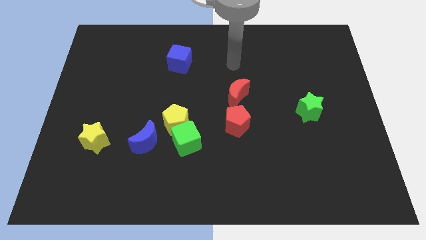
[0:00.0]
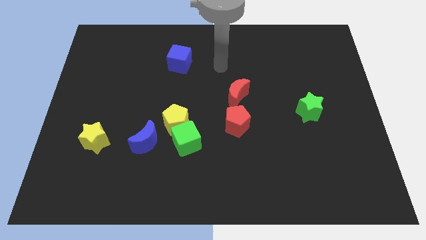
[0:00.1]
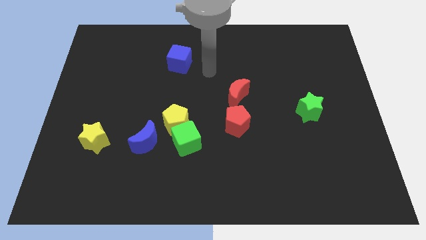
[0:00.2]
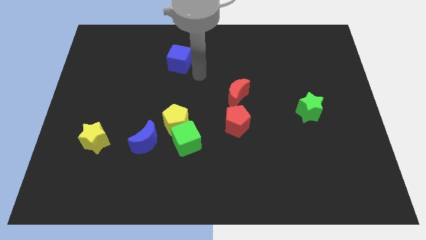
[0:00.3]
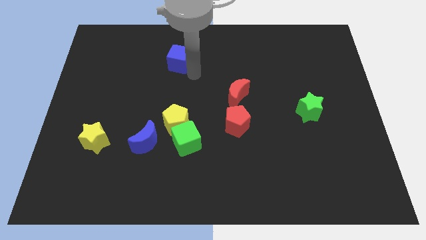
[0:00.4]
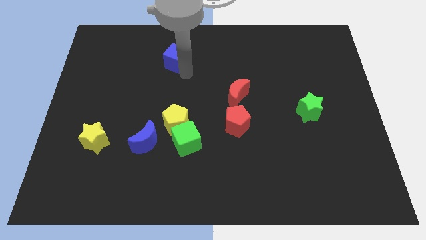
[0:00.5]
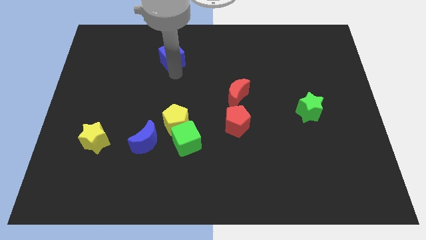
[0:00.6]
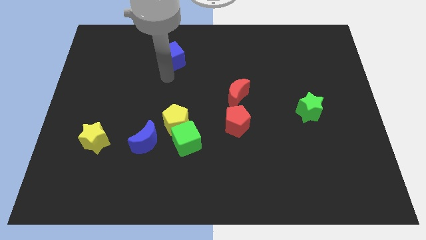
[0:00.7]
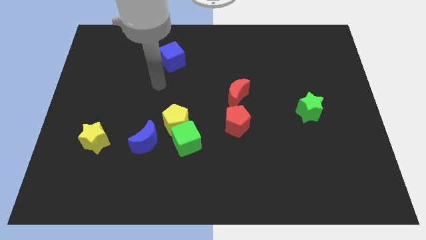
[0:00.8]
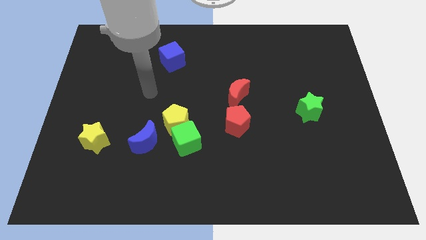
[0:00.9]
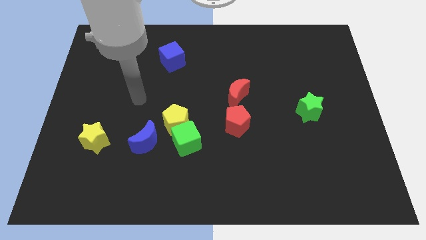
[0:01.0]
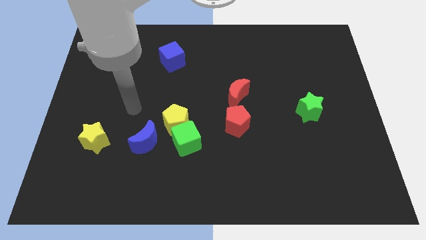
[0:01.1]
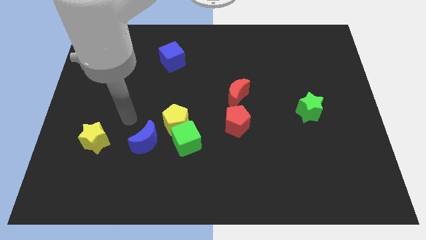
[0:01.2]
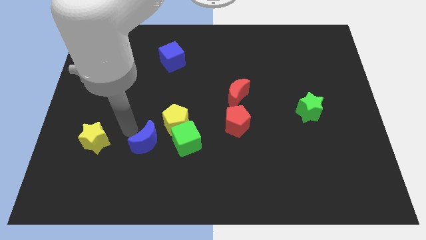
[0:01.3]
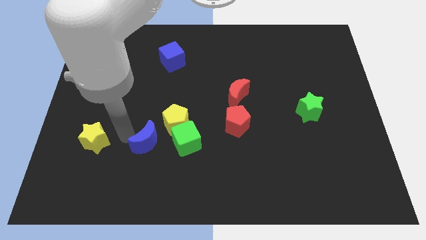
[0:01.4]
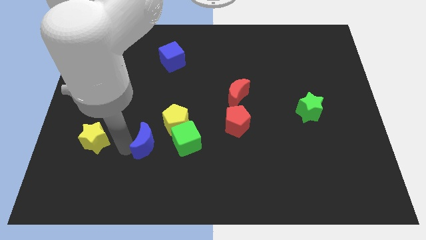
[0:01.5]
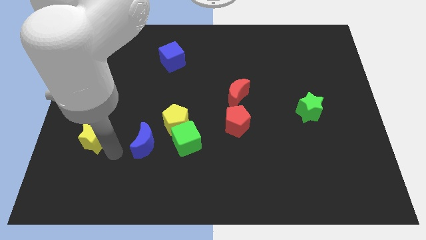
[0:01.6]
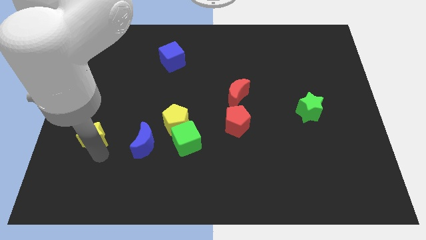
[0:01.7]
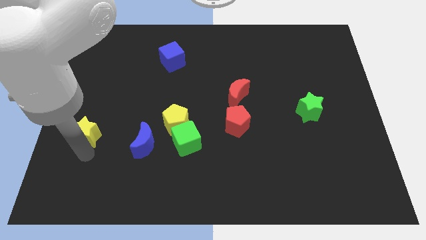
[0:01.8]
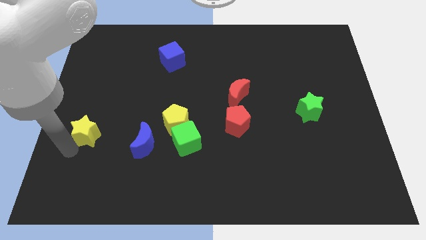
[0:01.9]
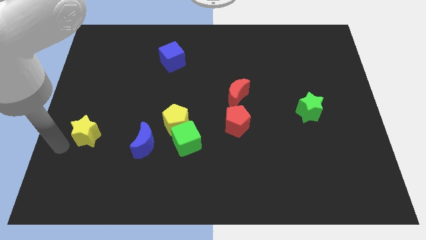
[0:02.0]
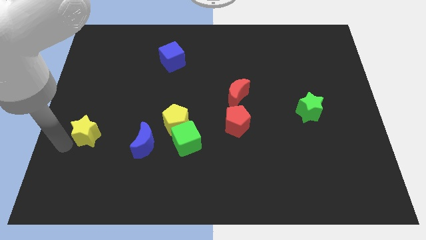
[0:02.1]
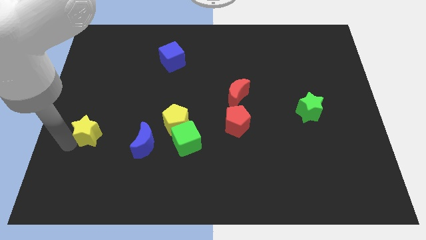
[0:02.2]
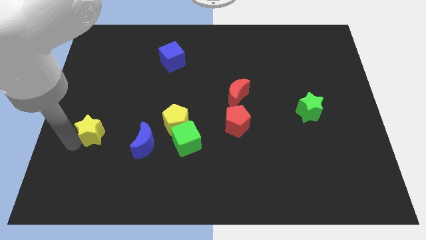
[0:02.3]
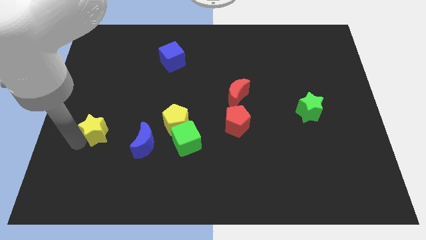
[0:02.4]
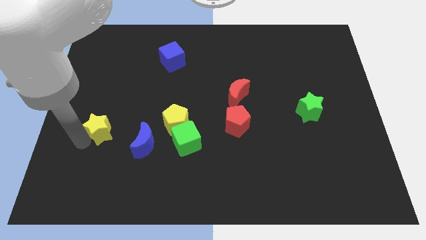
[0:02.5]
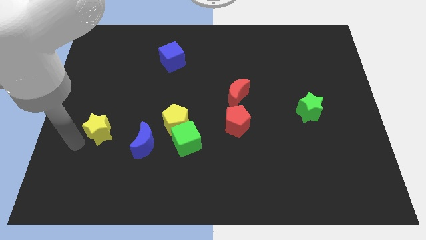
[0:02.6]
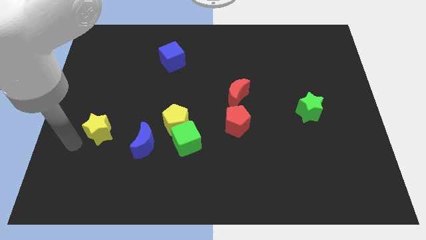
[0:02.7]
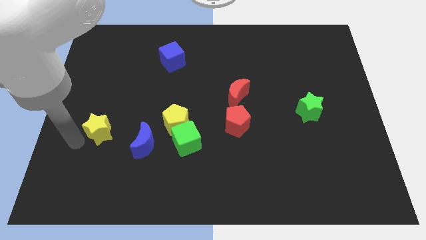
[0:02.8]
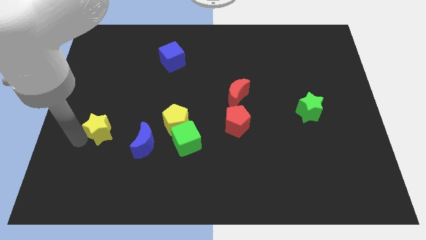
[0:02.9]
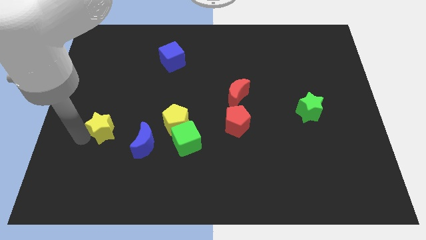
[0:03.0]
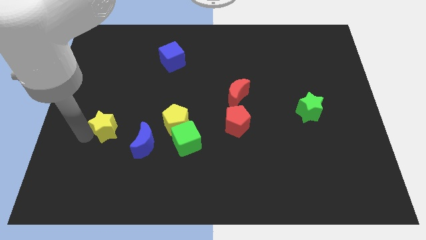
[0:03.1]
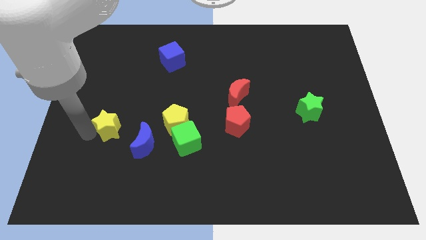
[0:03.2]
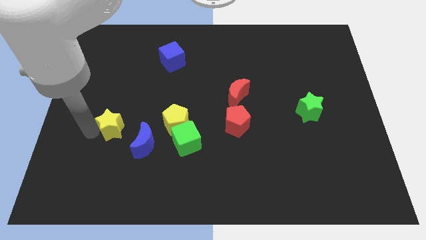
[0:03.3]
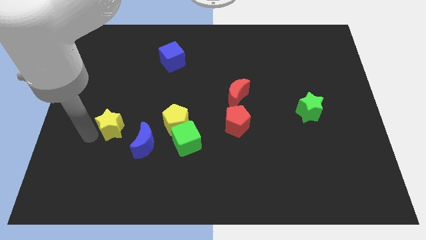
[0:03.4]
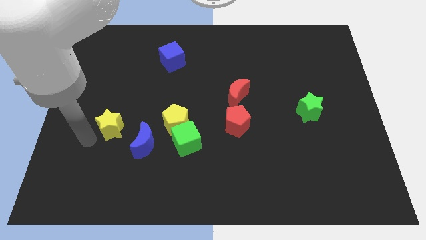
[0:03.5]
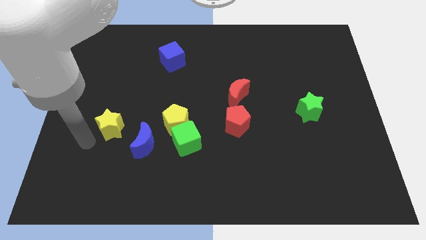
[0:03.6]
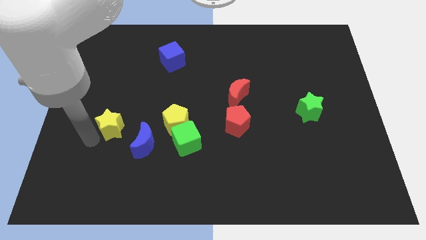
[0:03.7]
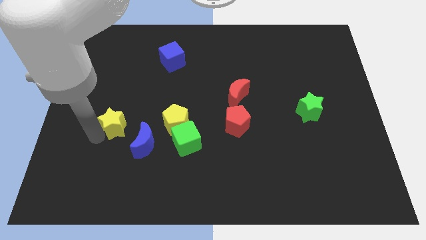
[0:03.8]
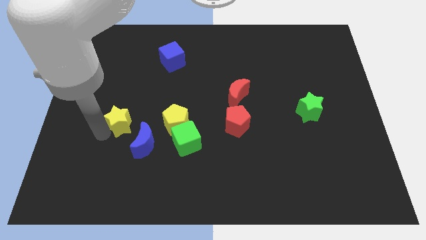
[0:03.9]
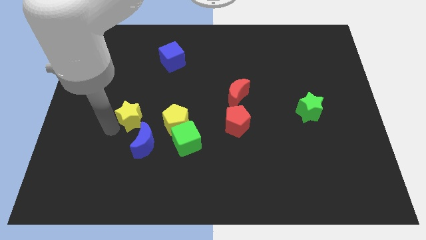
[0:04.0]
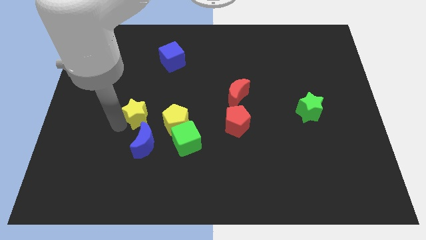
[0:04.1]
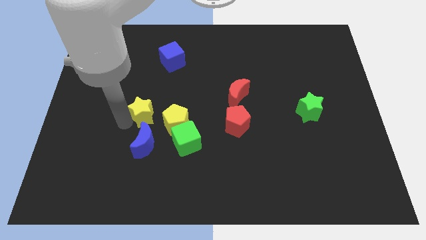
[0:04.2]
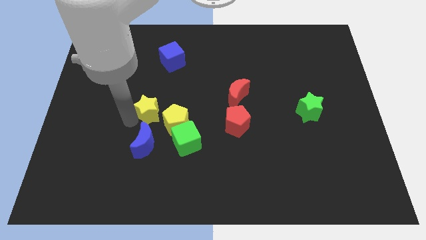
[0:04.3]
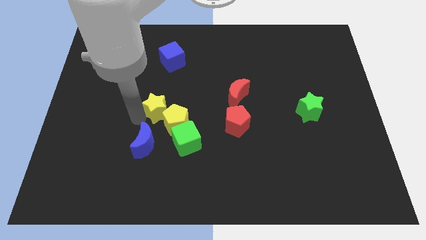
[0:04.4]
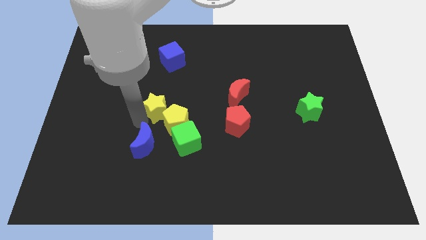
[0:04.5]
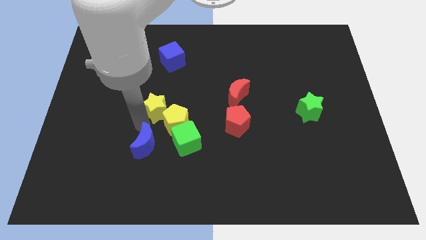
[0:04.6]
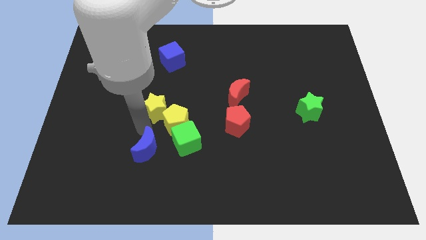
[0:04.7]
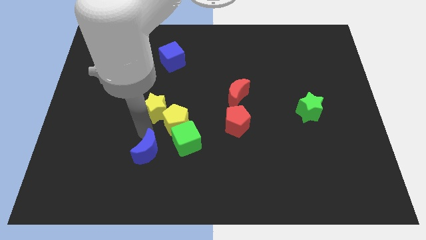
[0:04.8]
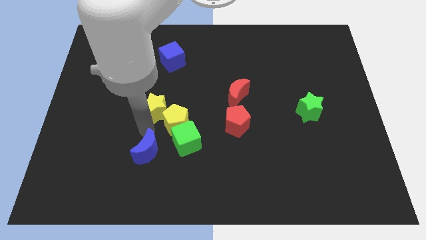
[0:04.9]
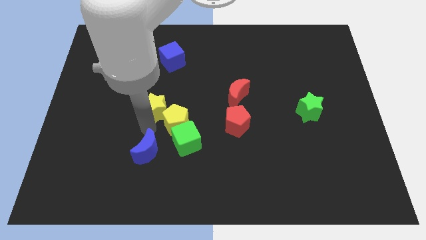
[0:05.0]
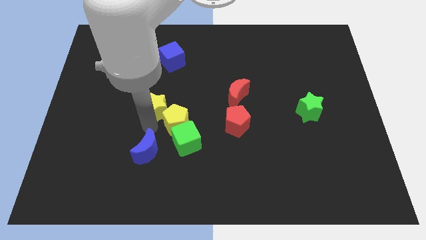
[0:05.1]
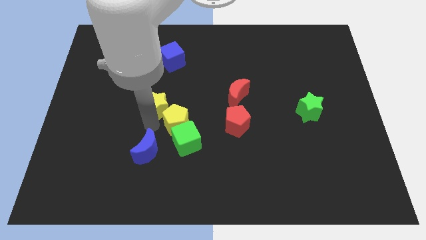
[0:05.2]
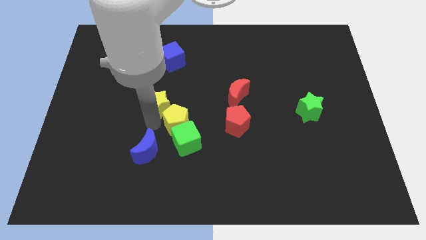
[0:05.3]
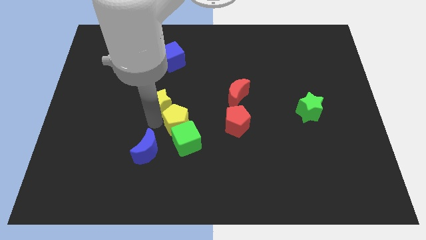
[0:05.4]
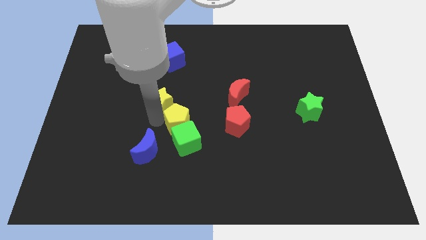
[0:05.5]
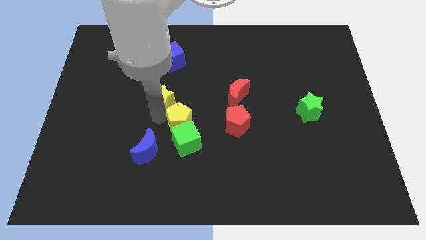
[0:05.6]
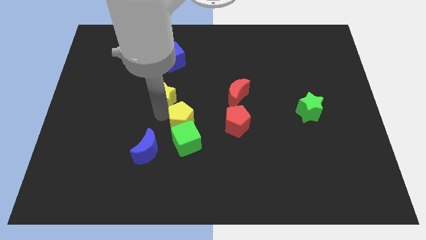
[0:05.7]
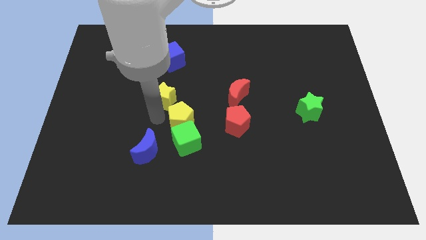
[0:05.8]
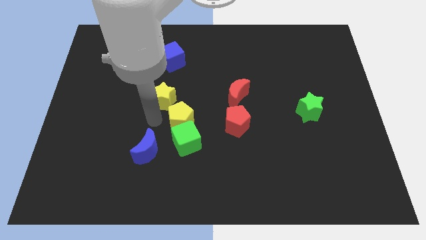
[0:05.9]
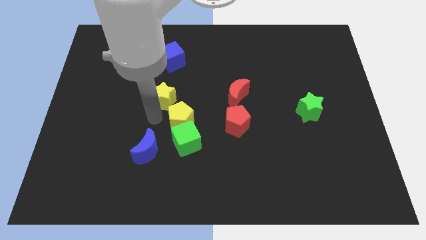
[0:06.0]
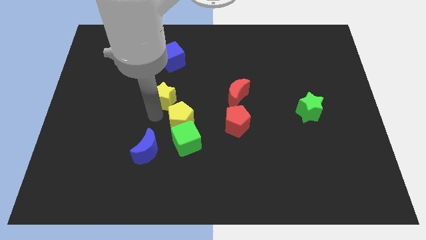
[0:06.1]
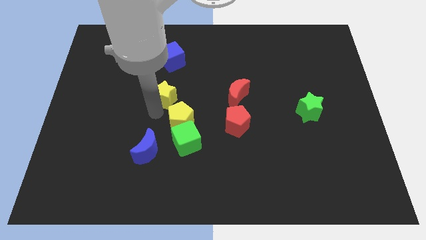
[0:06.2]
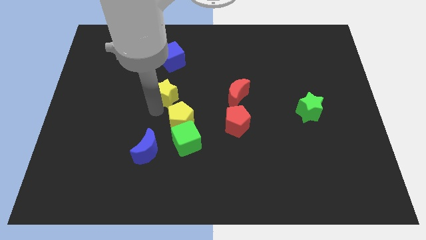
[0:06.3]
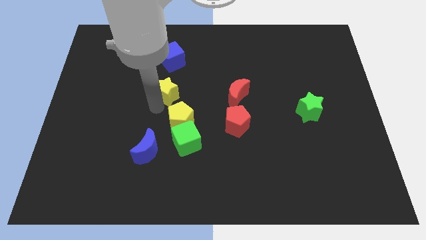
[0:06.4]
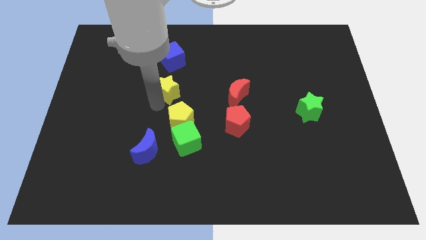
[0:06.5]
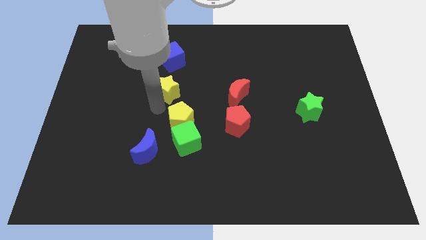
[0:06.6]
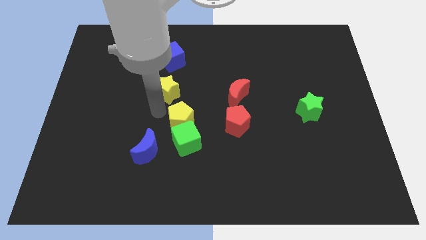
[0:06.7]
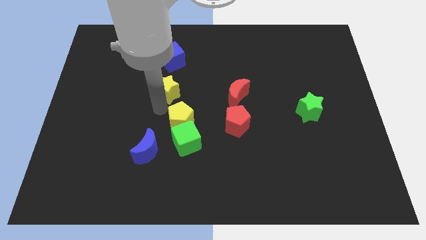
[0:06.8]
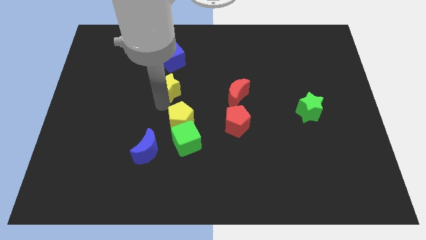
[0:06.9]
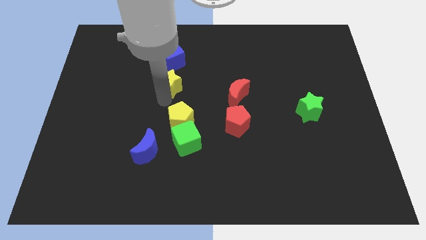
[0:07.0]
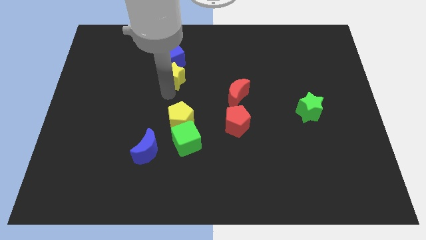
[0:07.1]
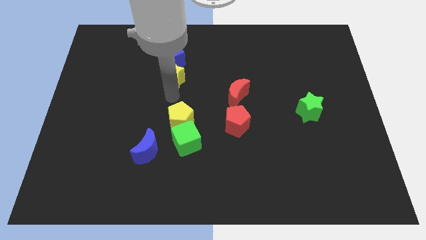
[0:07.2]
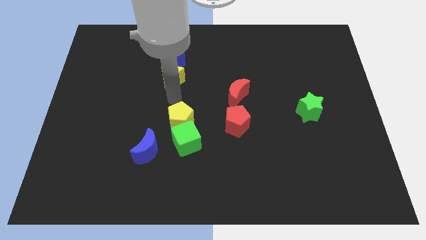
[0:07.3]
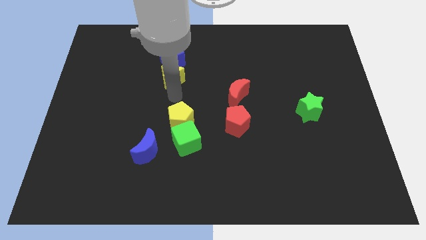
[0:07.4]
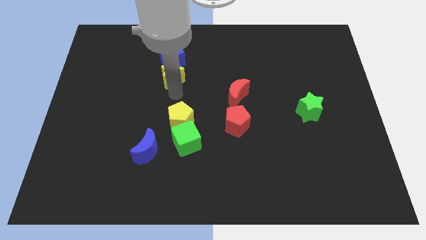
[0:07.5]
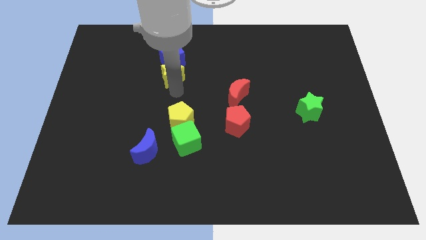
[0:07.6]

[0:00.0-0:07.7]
move the yellow star next to the blue cube
